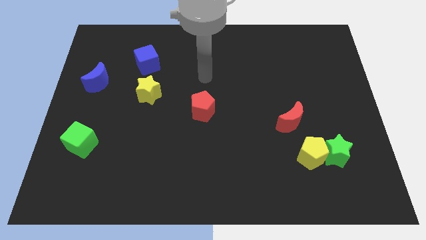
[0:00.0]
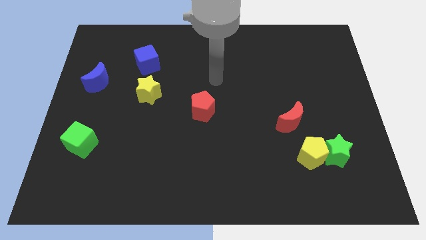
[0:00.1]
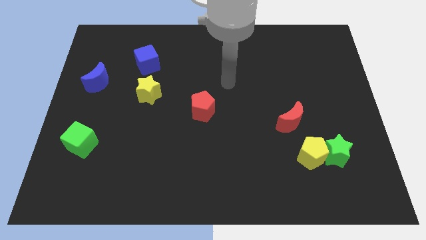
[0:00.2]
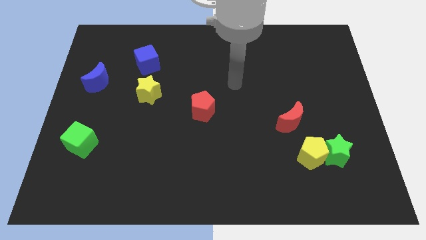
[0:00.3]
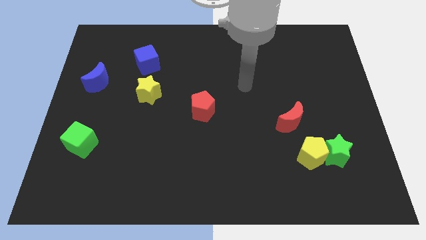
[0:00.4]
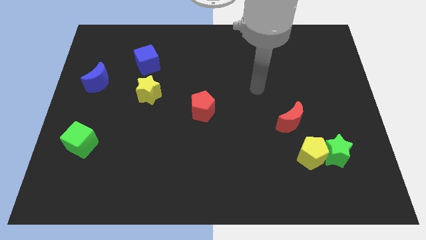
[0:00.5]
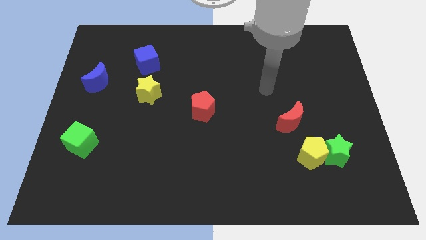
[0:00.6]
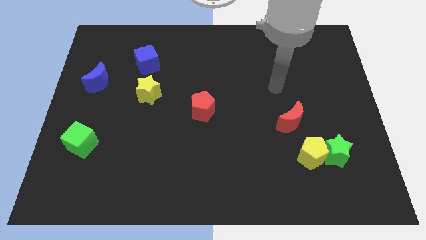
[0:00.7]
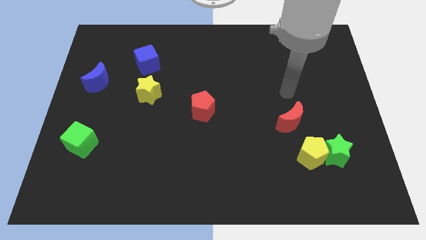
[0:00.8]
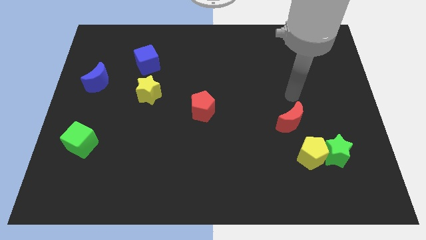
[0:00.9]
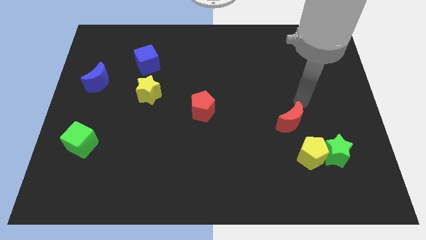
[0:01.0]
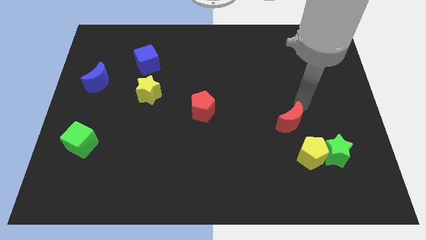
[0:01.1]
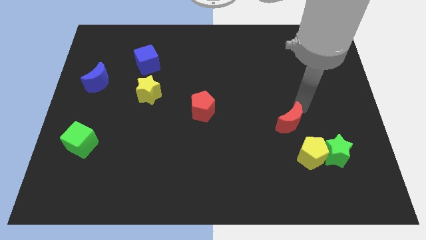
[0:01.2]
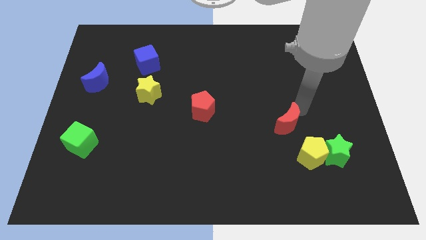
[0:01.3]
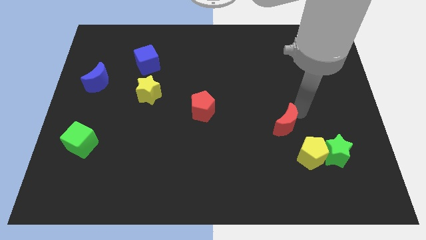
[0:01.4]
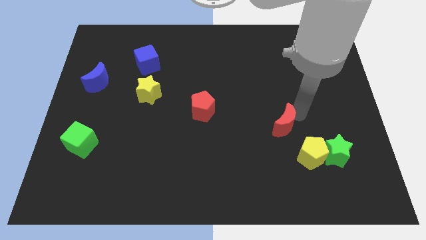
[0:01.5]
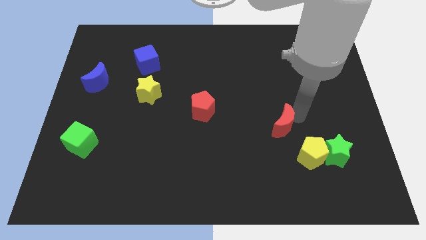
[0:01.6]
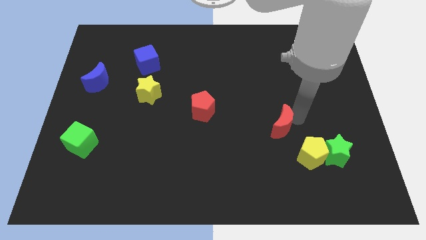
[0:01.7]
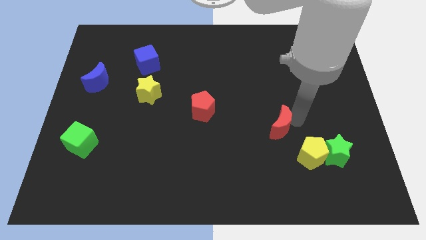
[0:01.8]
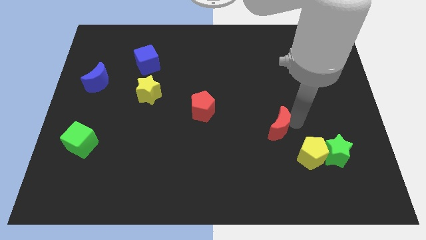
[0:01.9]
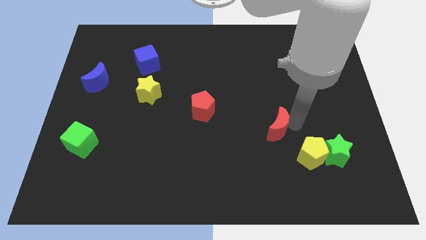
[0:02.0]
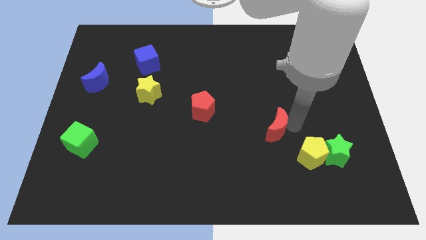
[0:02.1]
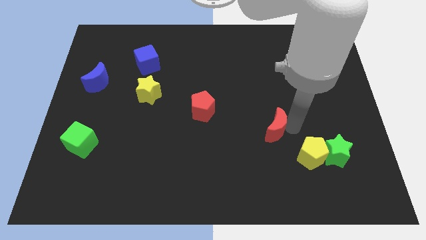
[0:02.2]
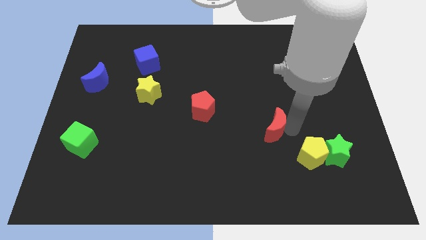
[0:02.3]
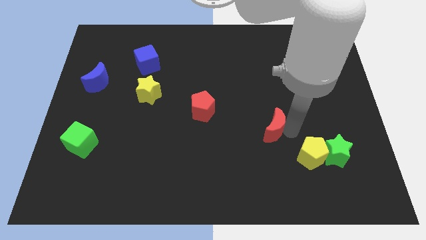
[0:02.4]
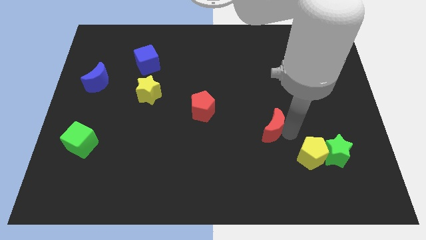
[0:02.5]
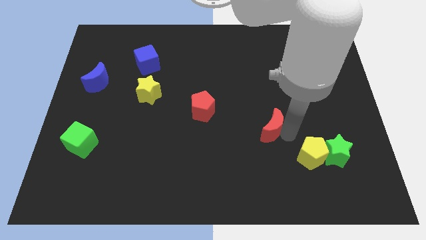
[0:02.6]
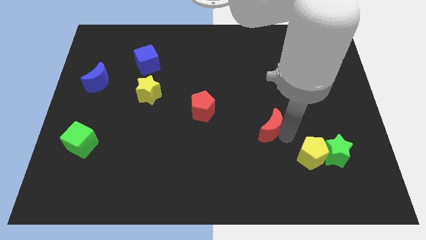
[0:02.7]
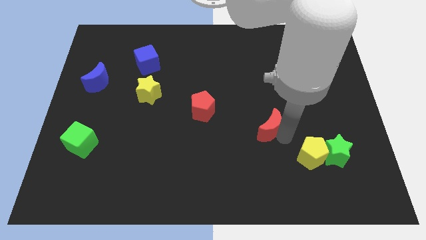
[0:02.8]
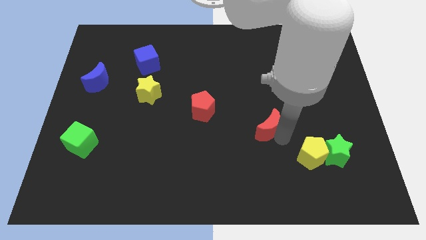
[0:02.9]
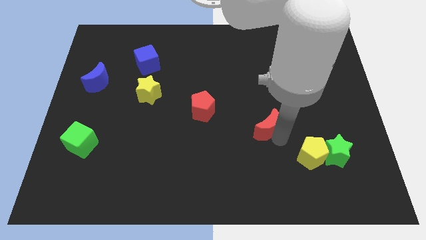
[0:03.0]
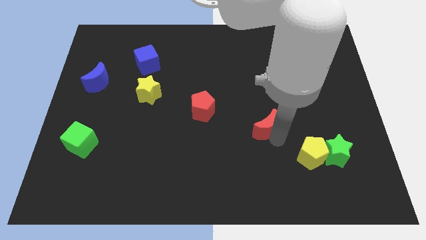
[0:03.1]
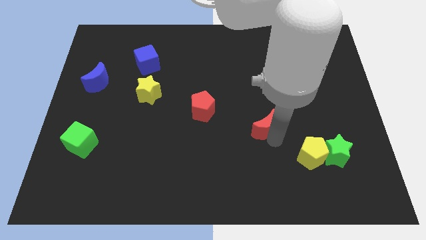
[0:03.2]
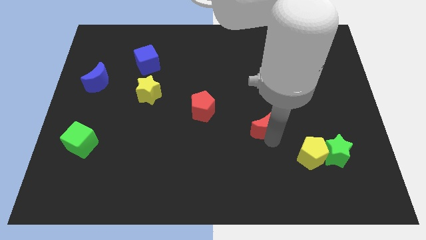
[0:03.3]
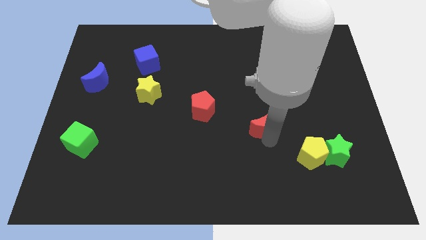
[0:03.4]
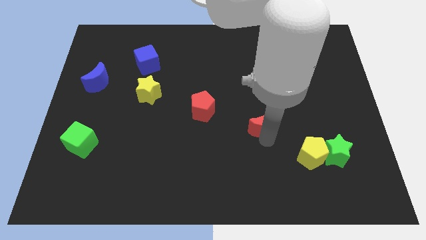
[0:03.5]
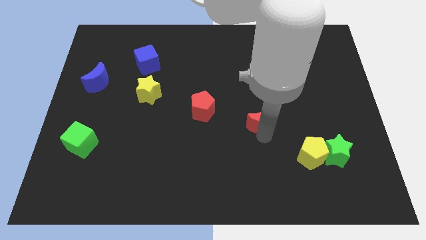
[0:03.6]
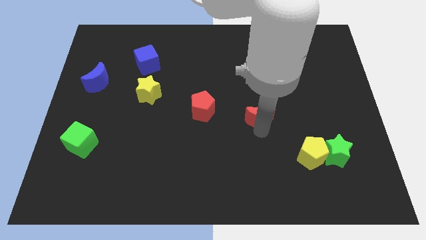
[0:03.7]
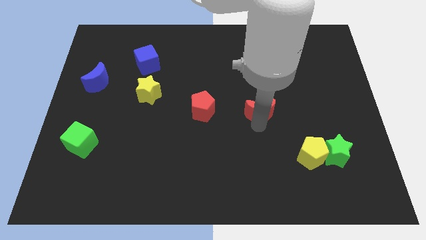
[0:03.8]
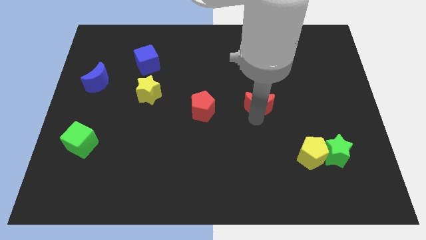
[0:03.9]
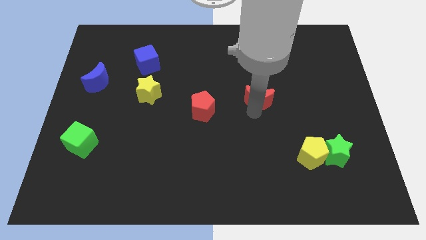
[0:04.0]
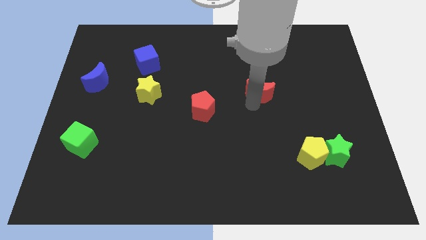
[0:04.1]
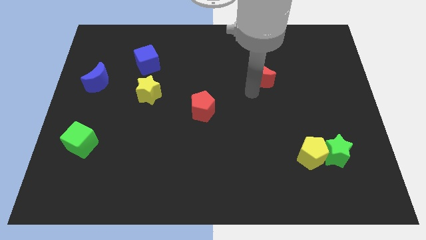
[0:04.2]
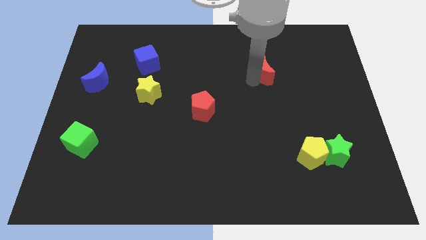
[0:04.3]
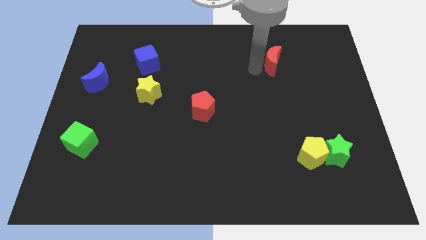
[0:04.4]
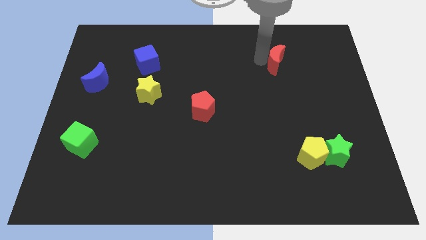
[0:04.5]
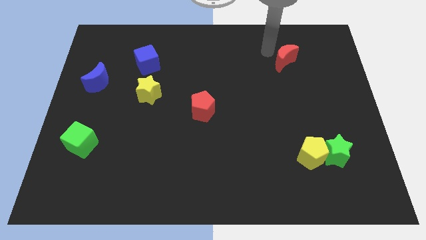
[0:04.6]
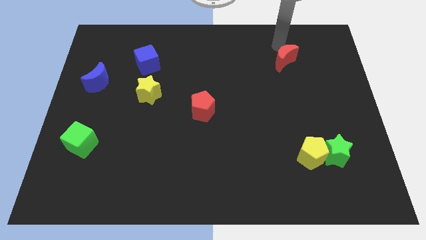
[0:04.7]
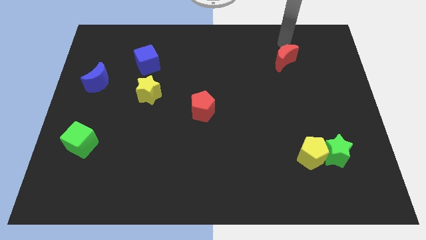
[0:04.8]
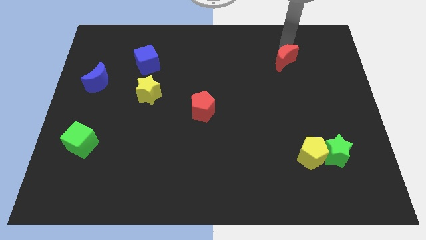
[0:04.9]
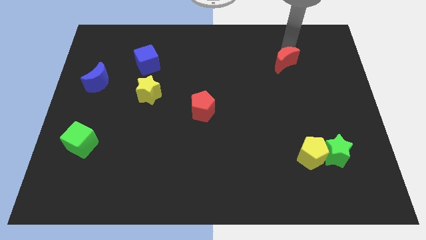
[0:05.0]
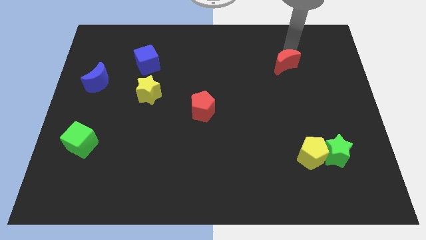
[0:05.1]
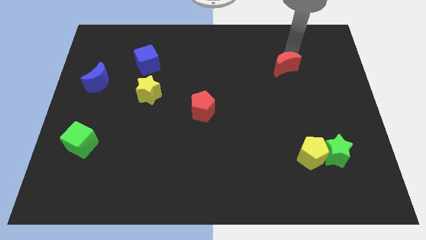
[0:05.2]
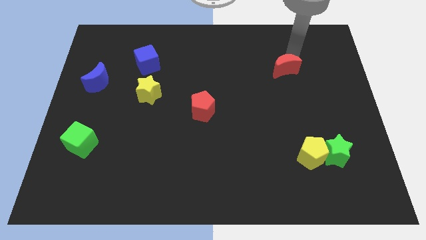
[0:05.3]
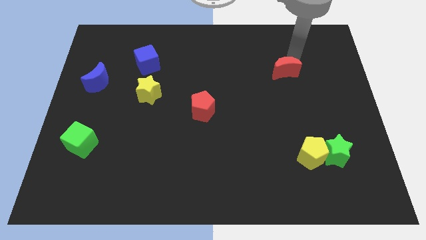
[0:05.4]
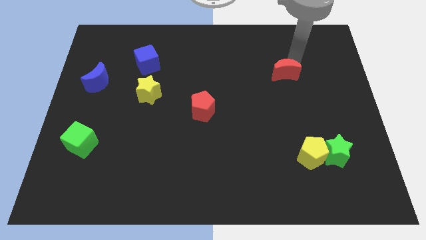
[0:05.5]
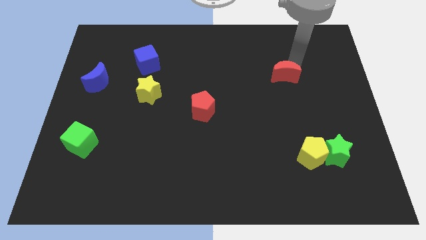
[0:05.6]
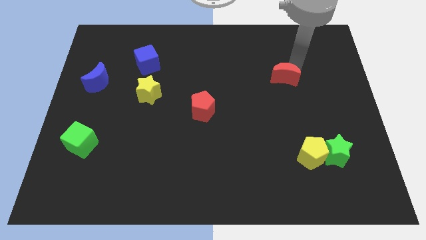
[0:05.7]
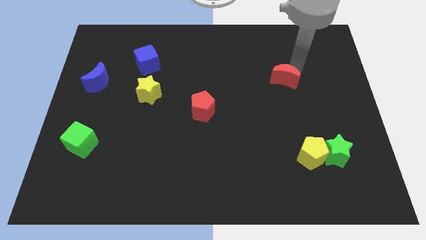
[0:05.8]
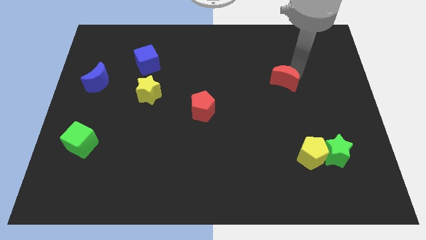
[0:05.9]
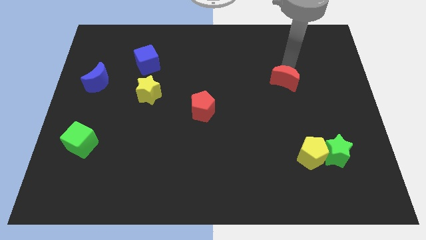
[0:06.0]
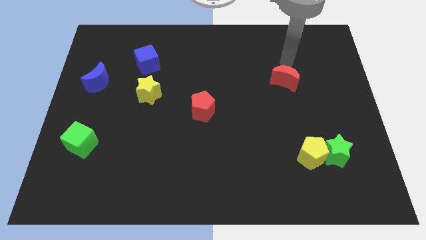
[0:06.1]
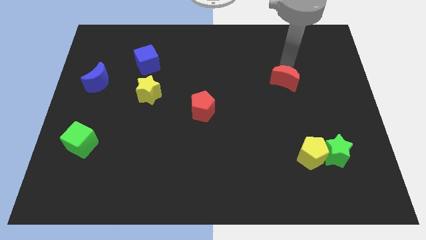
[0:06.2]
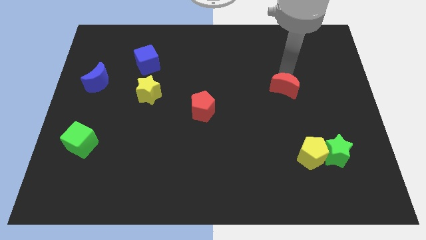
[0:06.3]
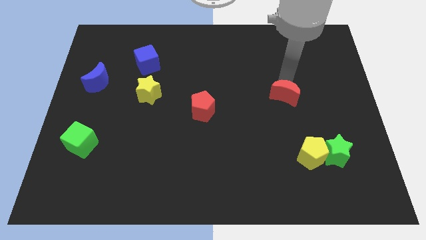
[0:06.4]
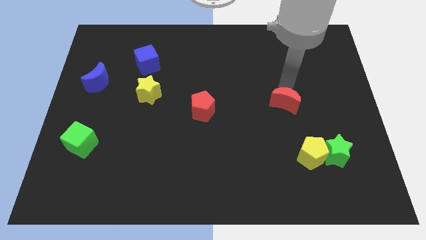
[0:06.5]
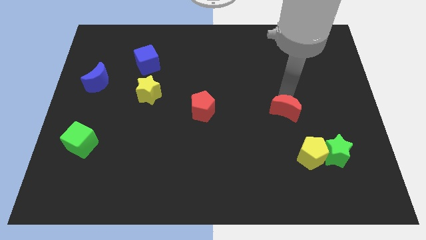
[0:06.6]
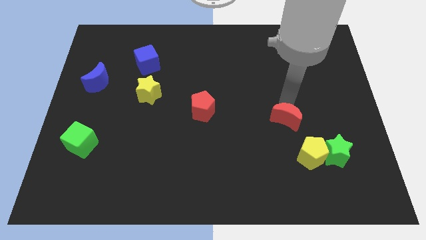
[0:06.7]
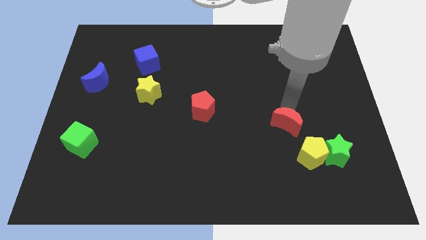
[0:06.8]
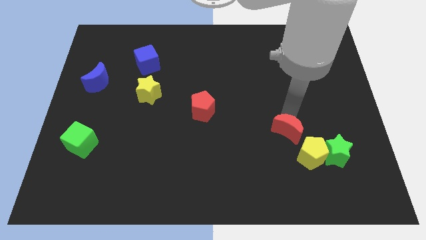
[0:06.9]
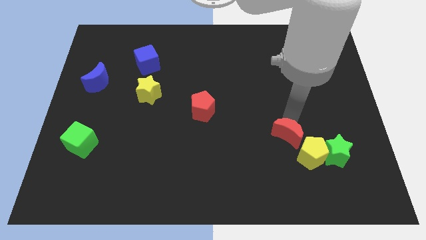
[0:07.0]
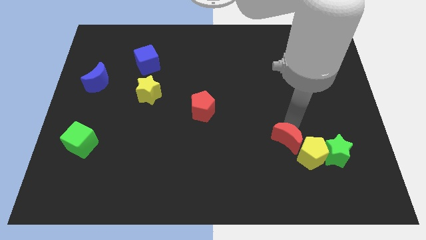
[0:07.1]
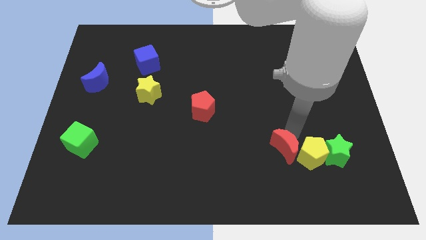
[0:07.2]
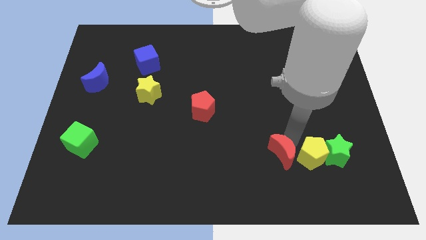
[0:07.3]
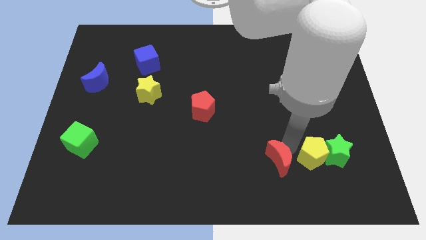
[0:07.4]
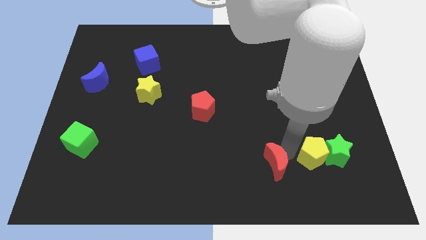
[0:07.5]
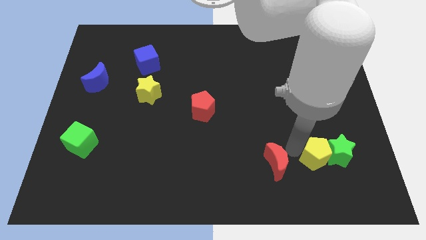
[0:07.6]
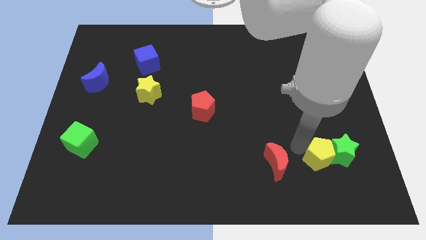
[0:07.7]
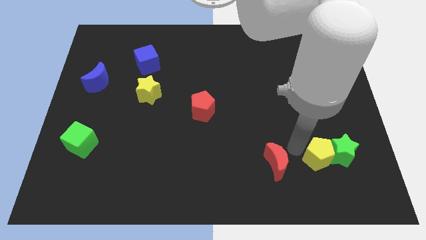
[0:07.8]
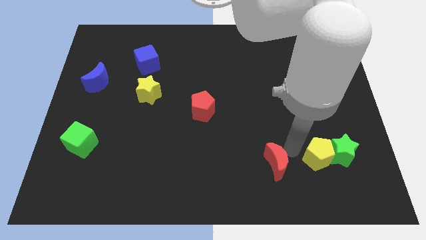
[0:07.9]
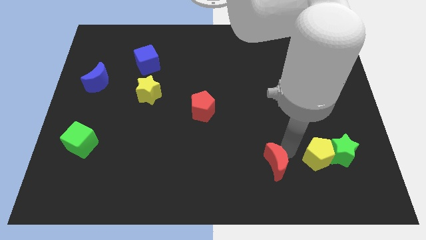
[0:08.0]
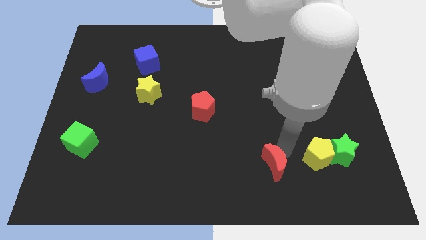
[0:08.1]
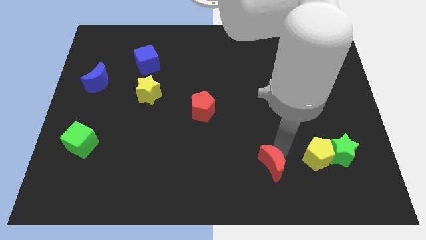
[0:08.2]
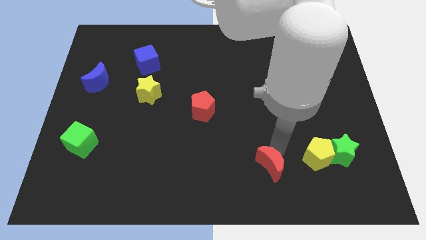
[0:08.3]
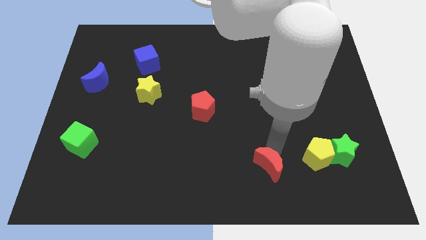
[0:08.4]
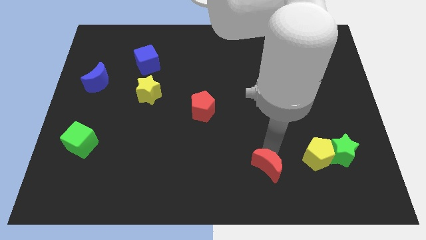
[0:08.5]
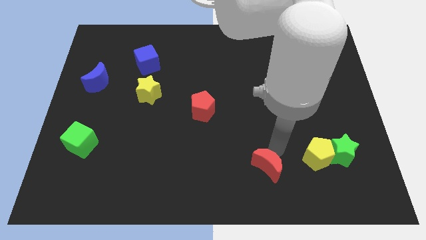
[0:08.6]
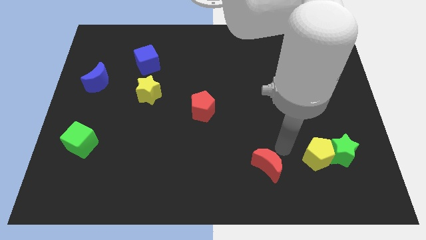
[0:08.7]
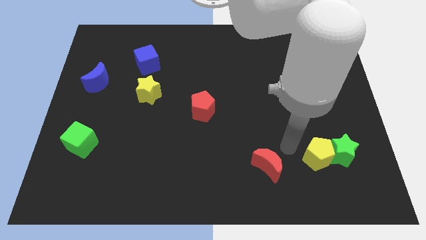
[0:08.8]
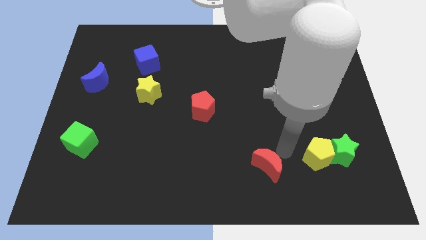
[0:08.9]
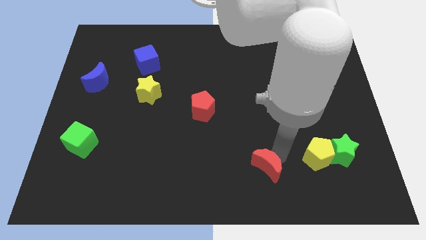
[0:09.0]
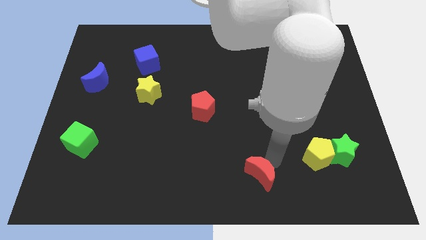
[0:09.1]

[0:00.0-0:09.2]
slide the red moon to the bottom side
